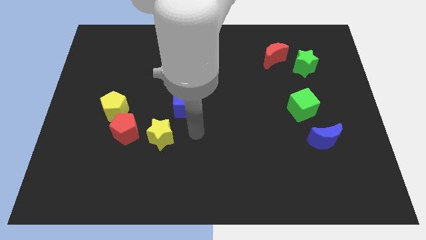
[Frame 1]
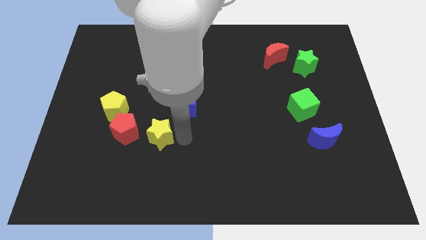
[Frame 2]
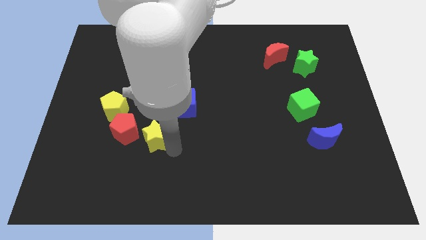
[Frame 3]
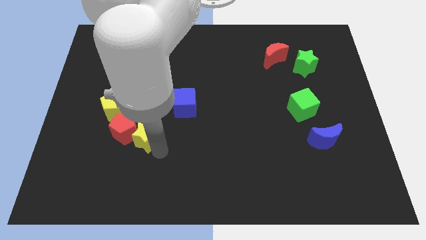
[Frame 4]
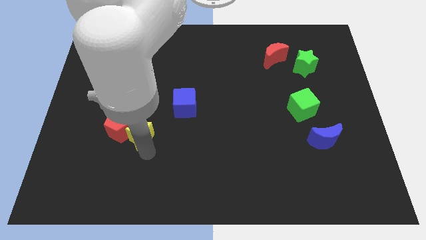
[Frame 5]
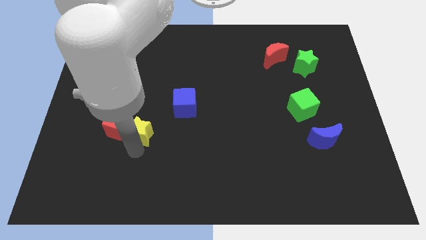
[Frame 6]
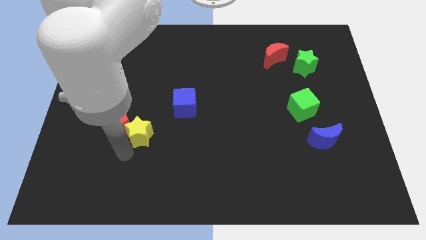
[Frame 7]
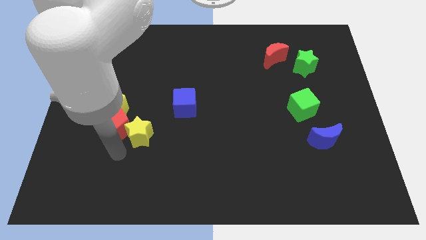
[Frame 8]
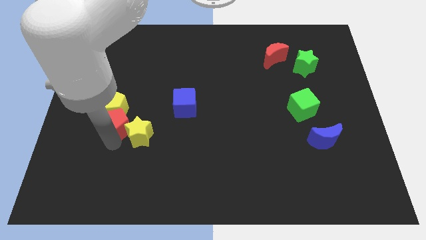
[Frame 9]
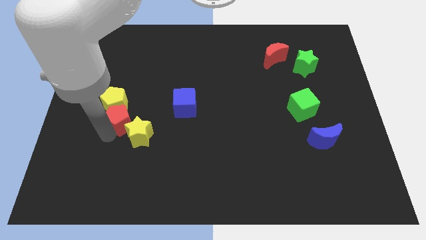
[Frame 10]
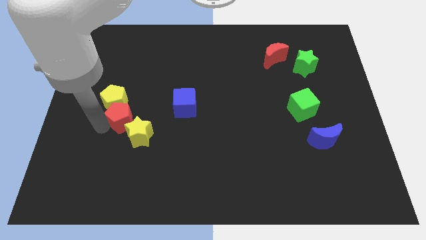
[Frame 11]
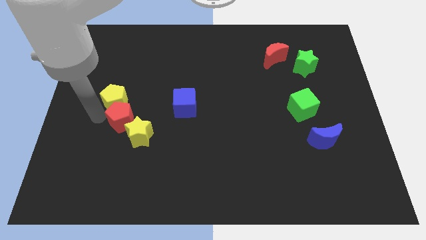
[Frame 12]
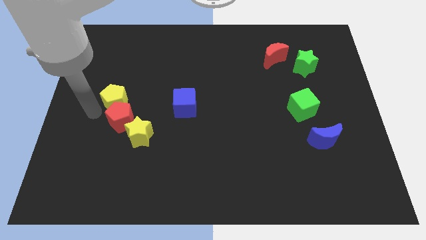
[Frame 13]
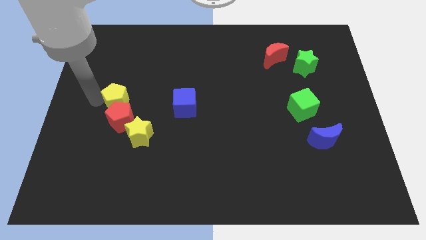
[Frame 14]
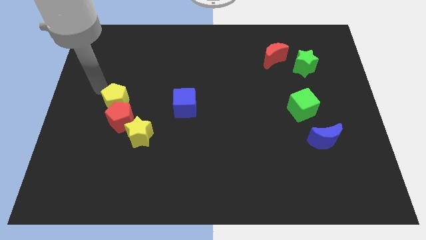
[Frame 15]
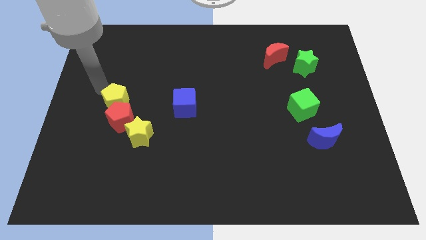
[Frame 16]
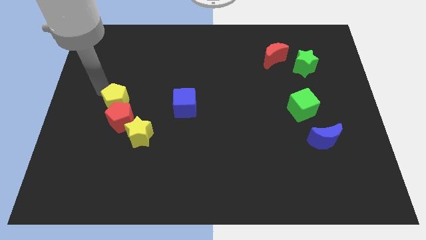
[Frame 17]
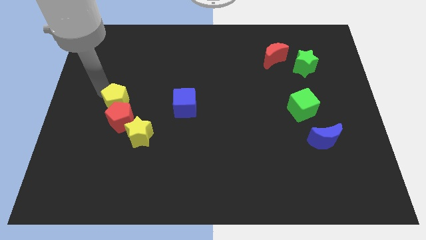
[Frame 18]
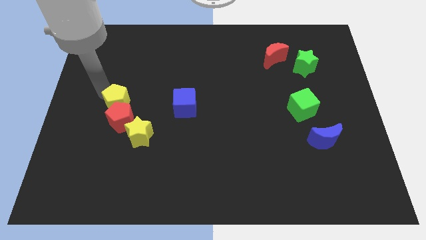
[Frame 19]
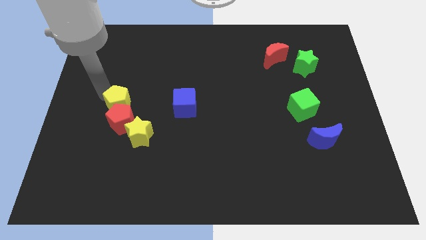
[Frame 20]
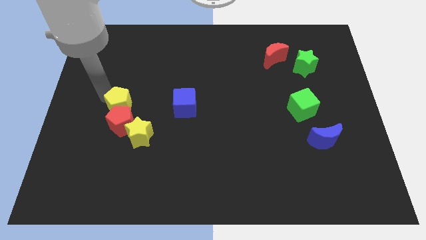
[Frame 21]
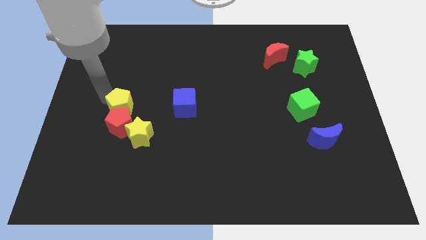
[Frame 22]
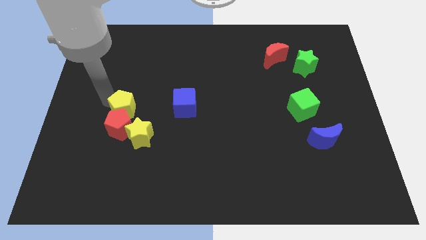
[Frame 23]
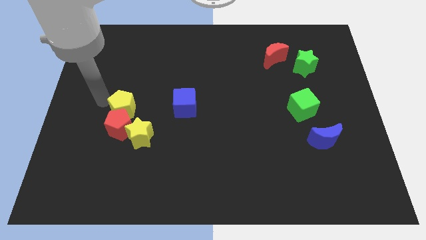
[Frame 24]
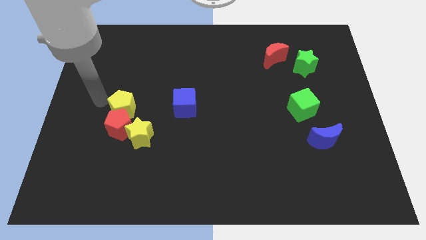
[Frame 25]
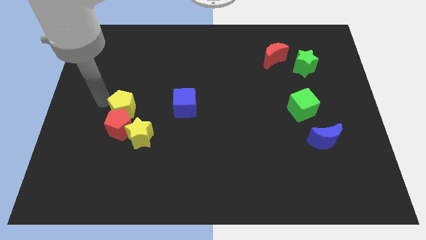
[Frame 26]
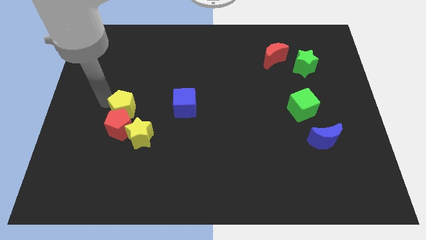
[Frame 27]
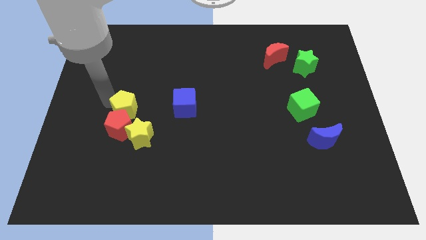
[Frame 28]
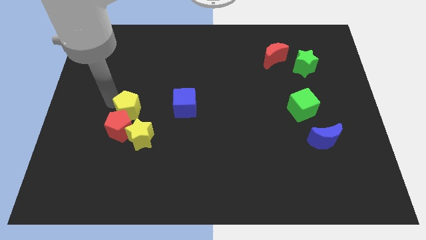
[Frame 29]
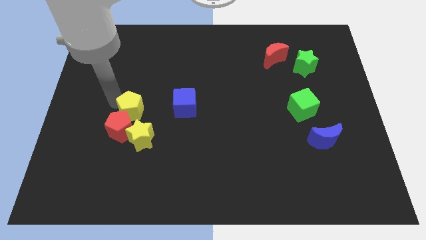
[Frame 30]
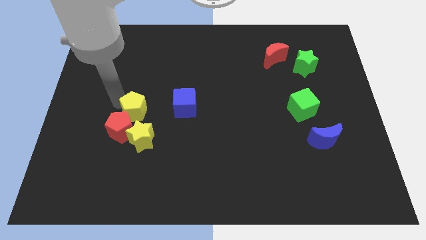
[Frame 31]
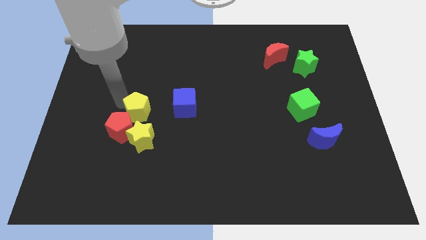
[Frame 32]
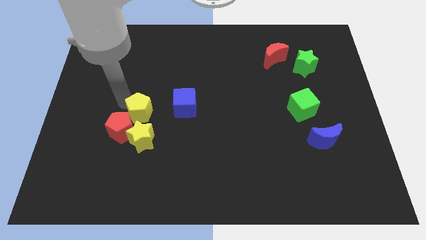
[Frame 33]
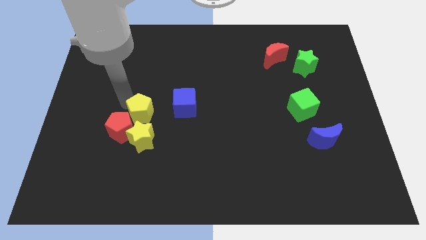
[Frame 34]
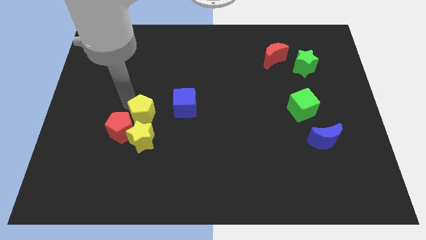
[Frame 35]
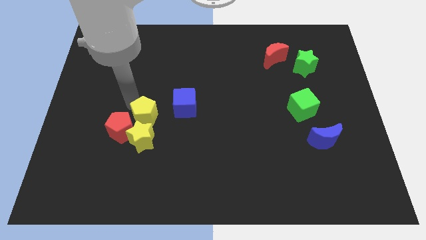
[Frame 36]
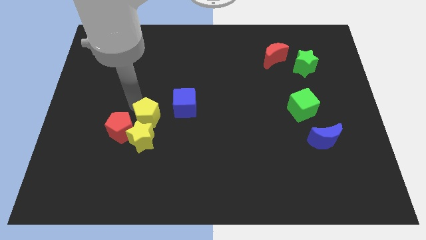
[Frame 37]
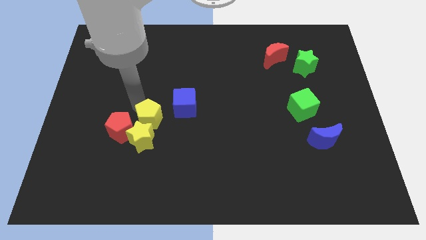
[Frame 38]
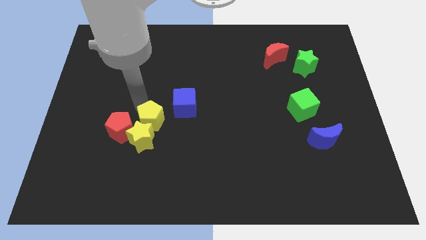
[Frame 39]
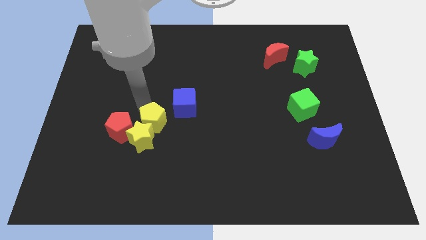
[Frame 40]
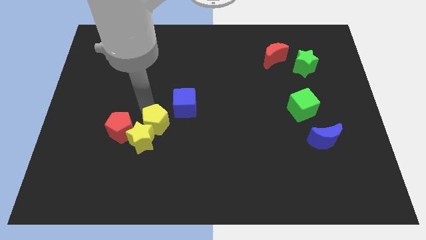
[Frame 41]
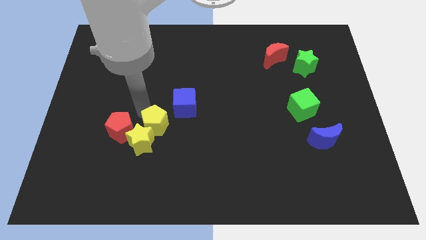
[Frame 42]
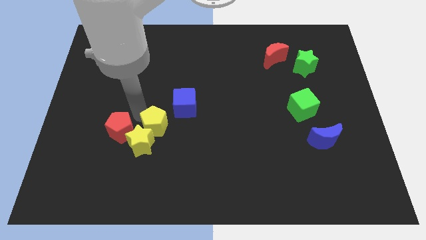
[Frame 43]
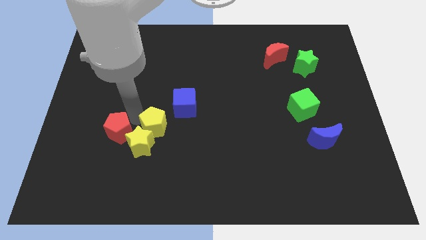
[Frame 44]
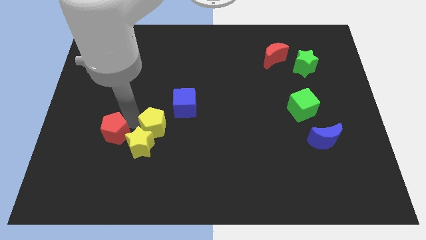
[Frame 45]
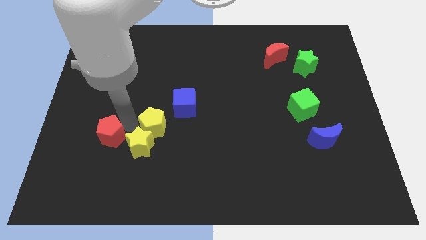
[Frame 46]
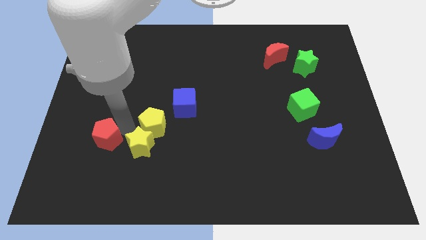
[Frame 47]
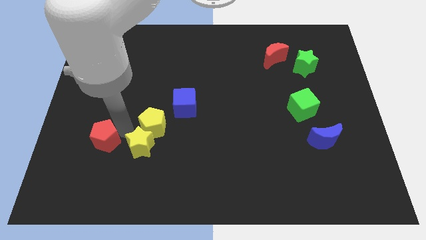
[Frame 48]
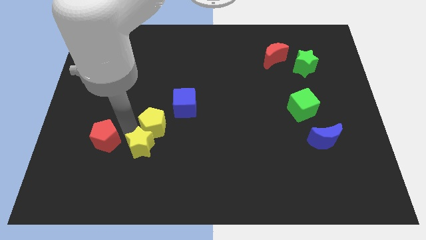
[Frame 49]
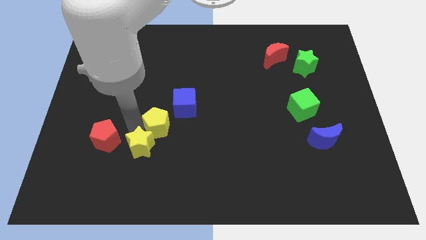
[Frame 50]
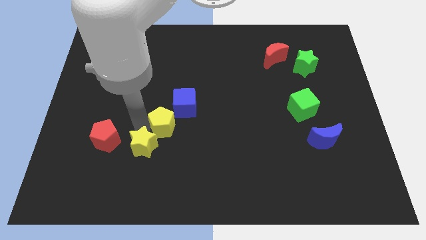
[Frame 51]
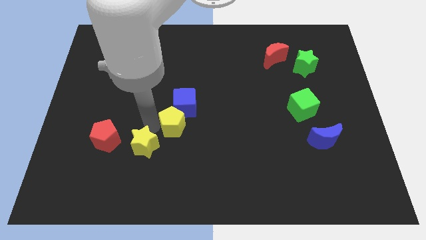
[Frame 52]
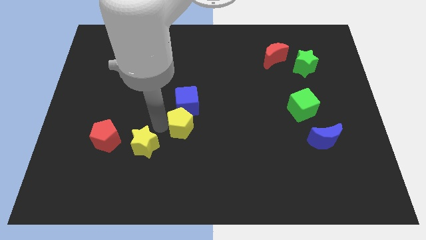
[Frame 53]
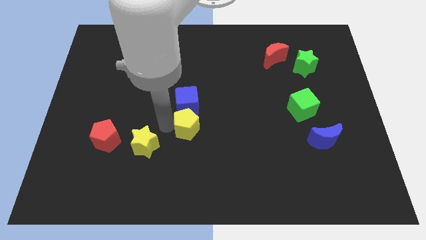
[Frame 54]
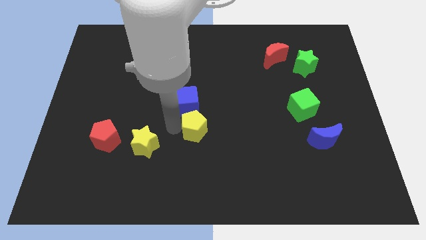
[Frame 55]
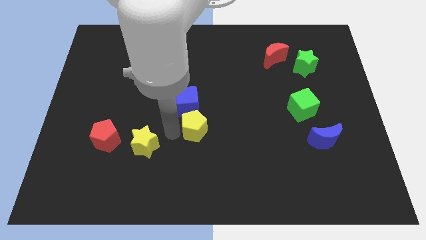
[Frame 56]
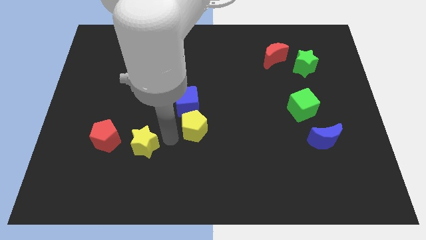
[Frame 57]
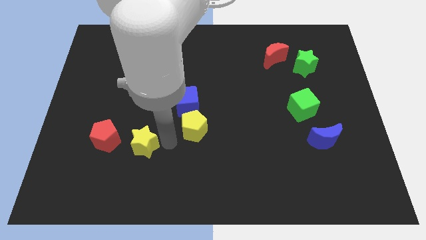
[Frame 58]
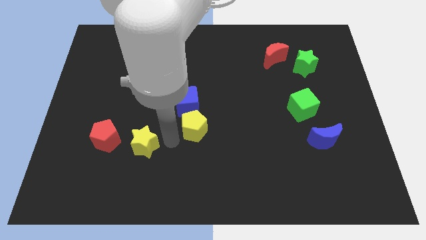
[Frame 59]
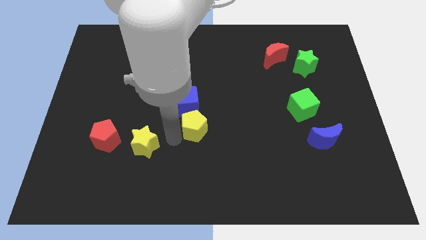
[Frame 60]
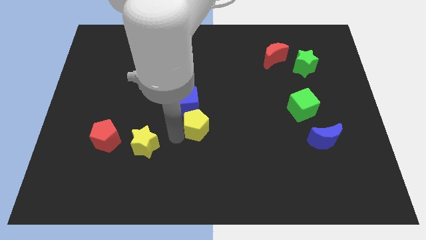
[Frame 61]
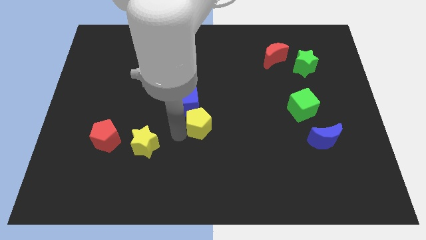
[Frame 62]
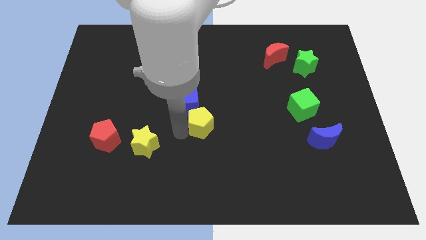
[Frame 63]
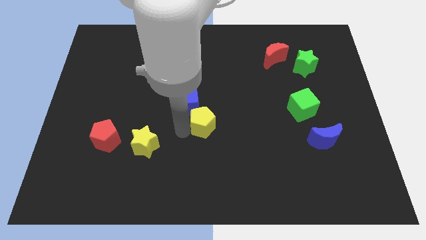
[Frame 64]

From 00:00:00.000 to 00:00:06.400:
slide the yellow pentagon right

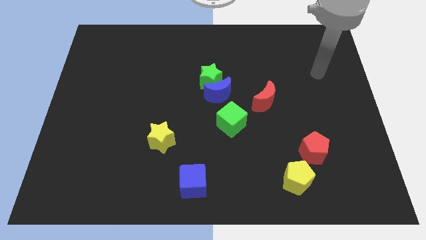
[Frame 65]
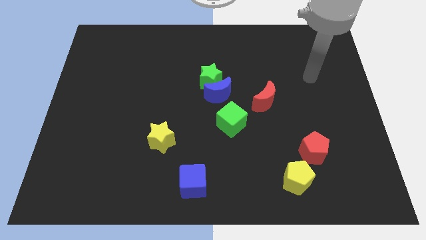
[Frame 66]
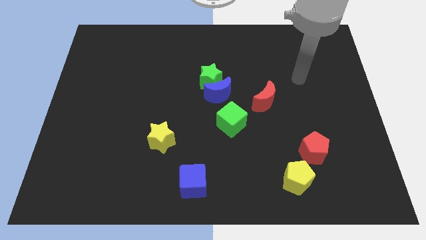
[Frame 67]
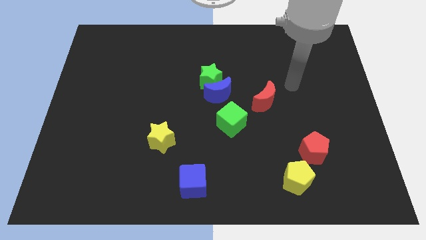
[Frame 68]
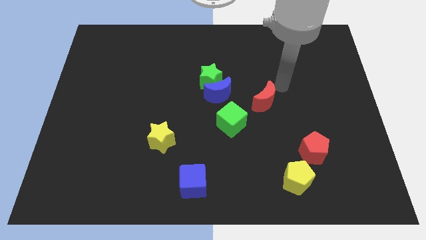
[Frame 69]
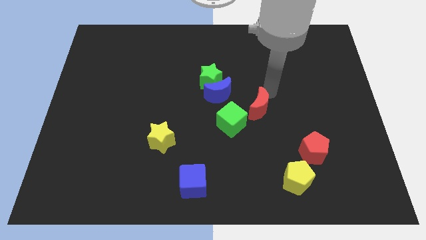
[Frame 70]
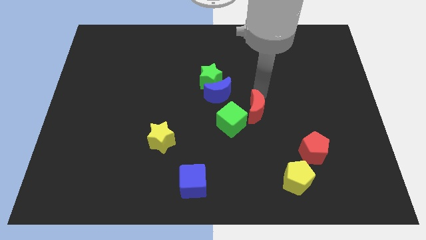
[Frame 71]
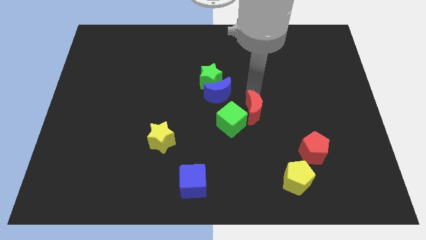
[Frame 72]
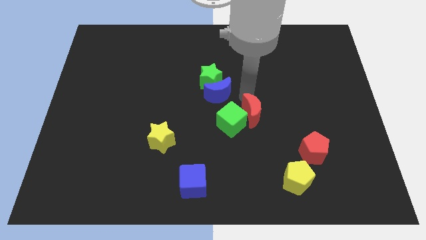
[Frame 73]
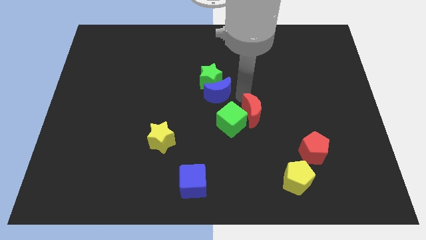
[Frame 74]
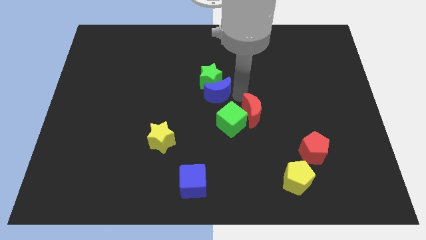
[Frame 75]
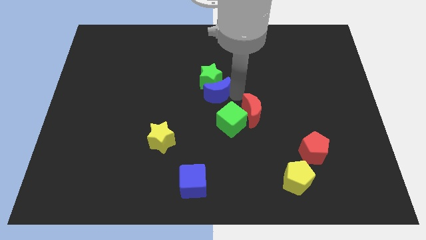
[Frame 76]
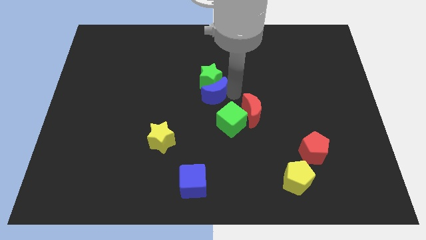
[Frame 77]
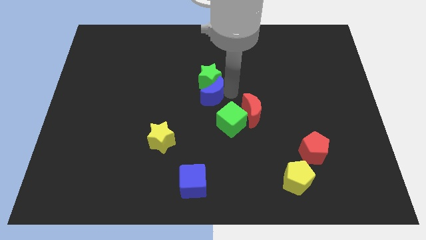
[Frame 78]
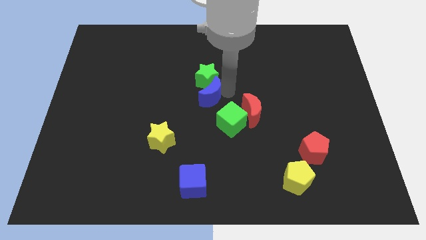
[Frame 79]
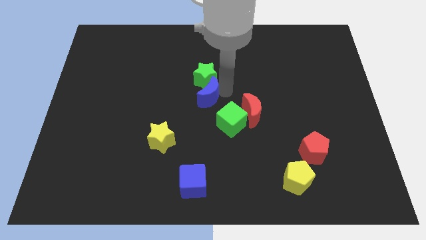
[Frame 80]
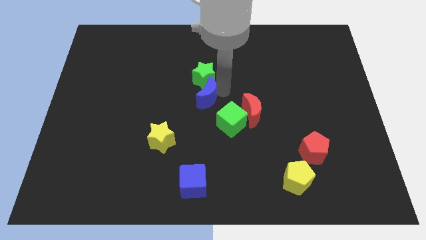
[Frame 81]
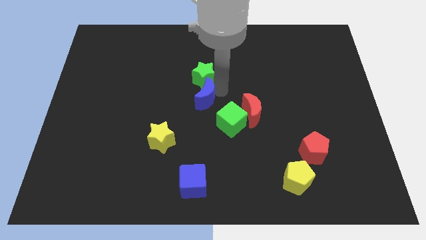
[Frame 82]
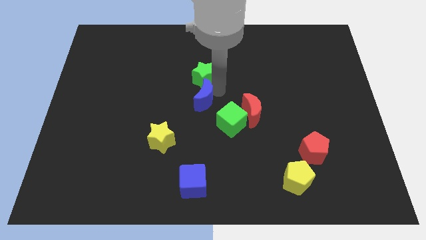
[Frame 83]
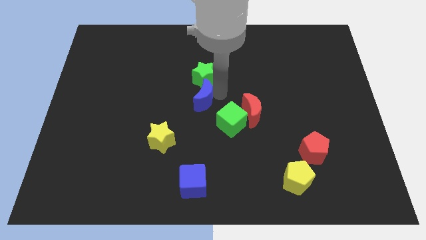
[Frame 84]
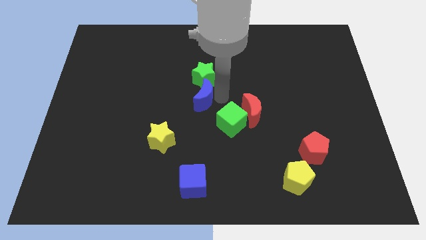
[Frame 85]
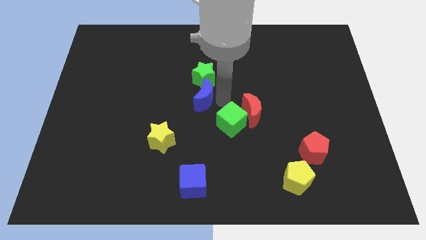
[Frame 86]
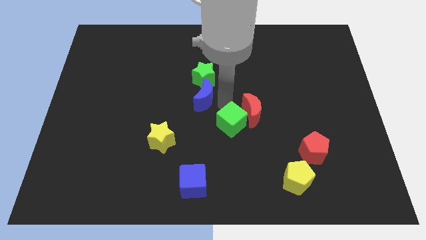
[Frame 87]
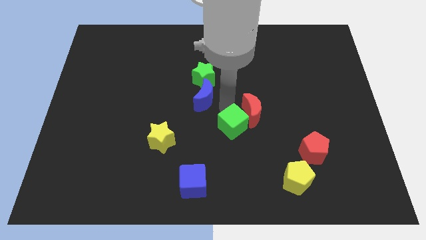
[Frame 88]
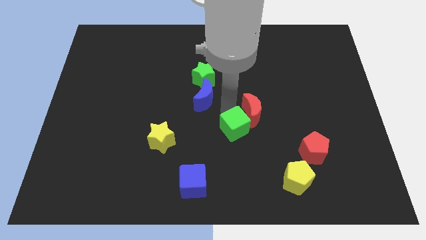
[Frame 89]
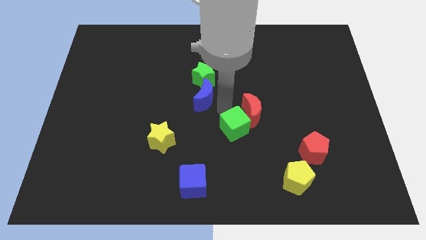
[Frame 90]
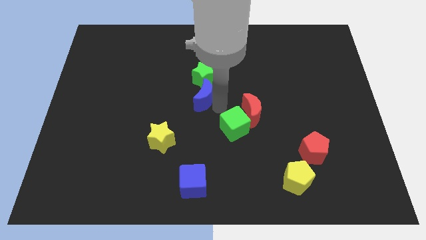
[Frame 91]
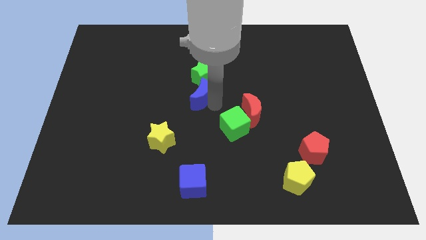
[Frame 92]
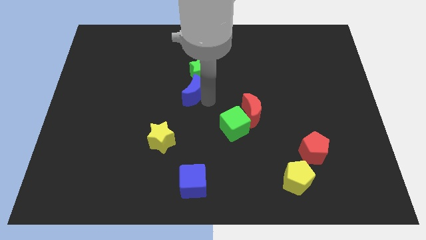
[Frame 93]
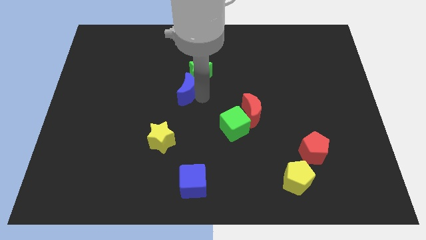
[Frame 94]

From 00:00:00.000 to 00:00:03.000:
move the blue moon left slightly
